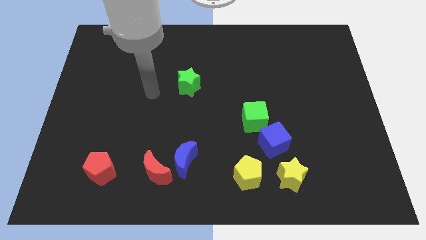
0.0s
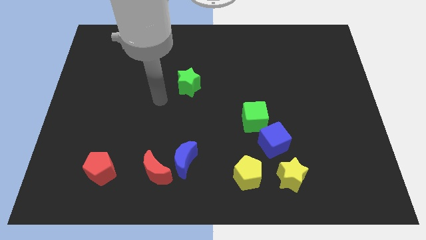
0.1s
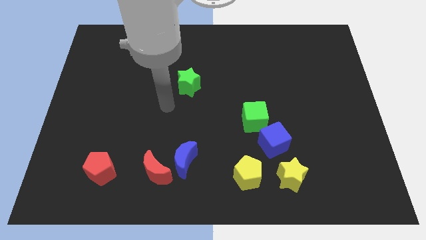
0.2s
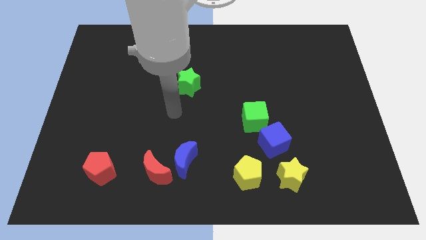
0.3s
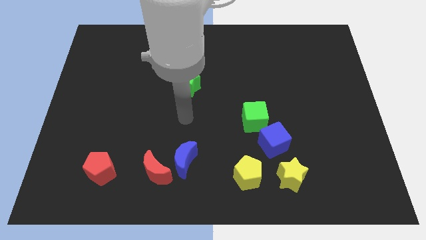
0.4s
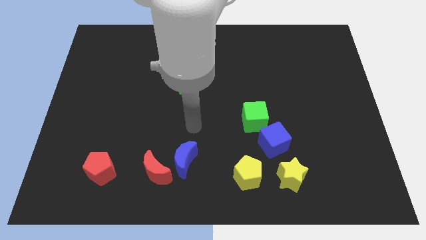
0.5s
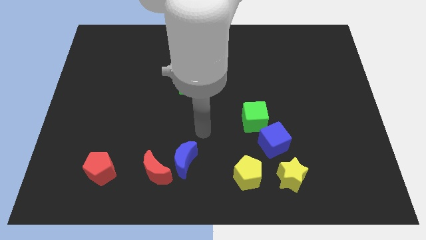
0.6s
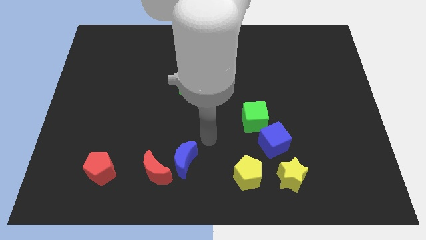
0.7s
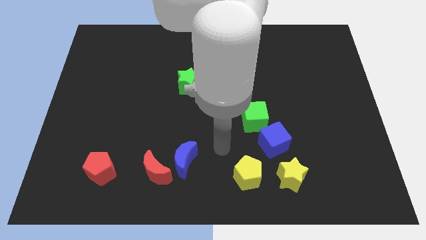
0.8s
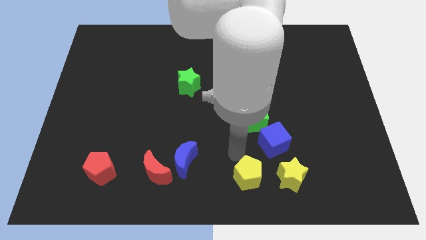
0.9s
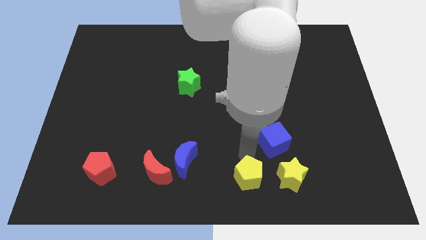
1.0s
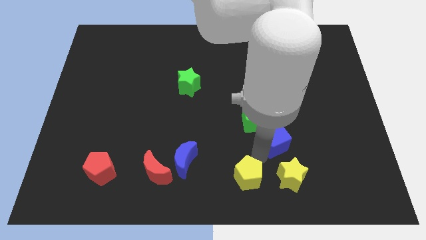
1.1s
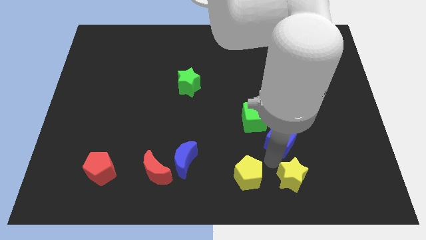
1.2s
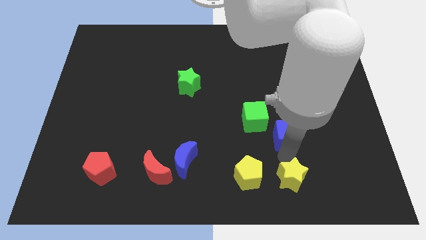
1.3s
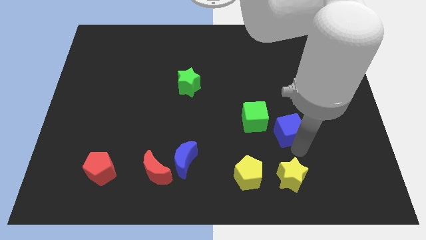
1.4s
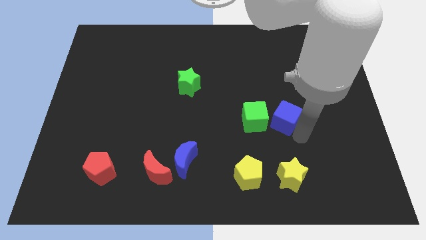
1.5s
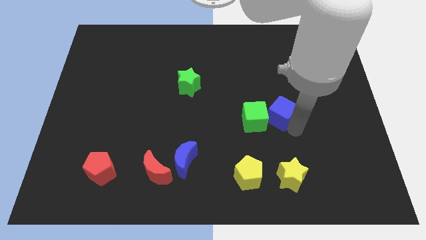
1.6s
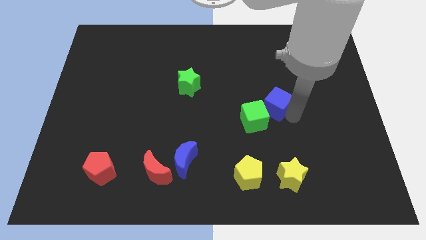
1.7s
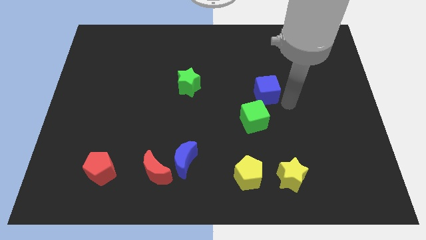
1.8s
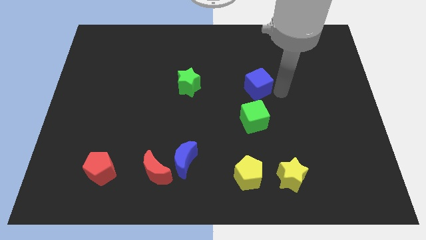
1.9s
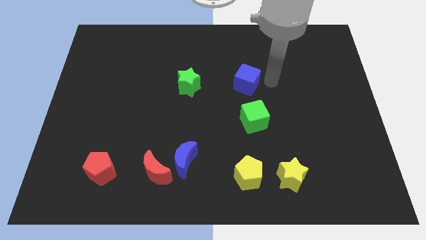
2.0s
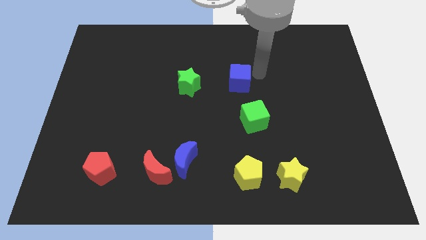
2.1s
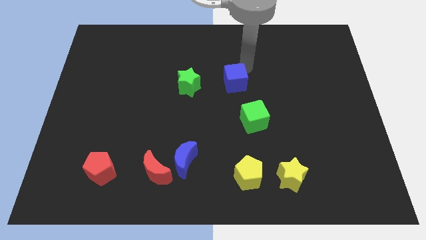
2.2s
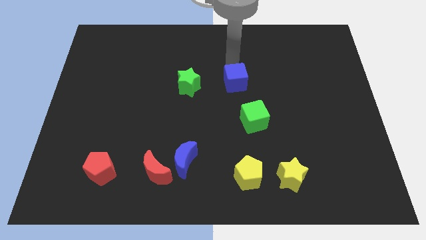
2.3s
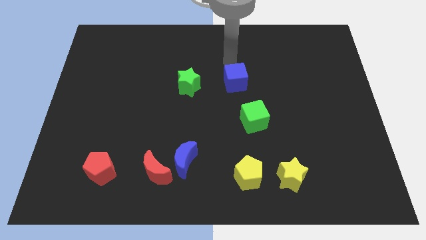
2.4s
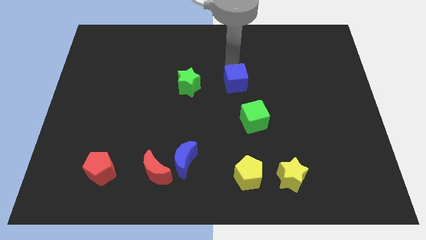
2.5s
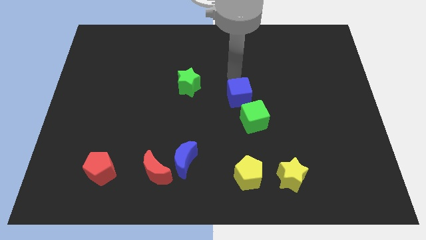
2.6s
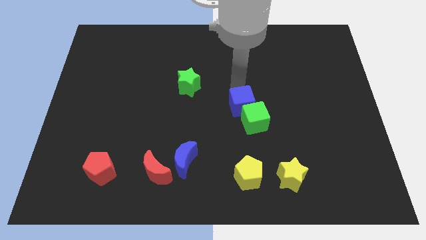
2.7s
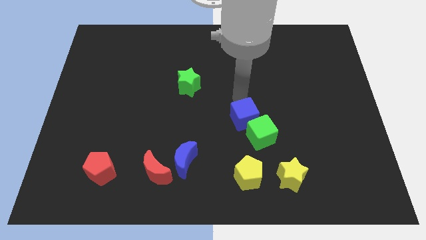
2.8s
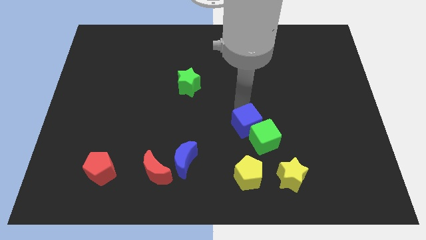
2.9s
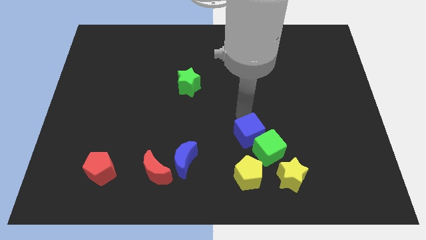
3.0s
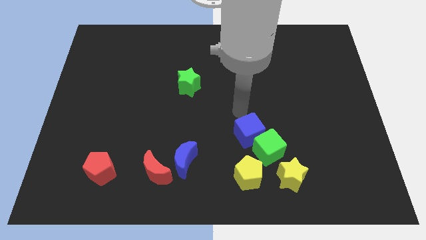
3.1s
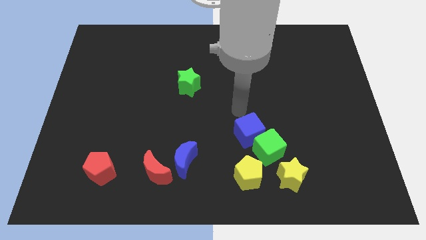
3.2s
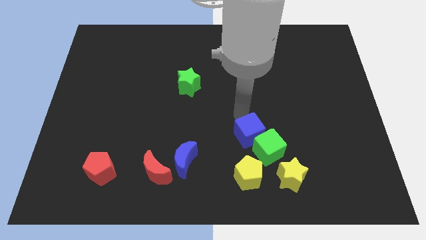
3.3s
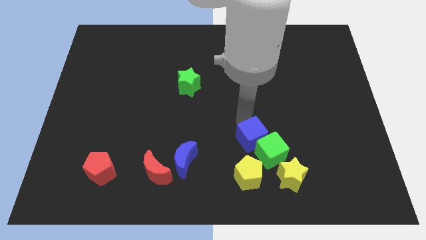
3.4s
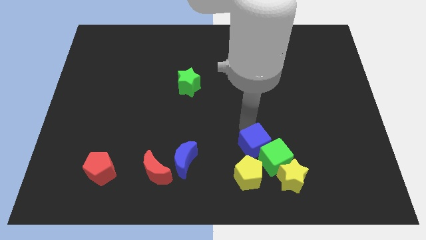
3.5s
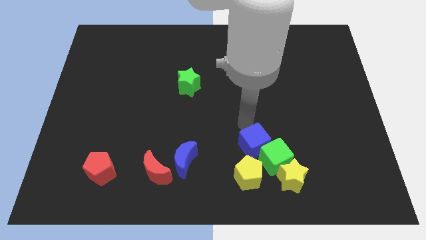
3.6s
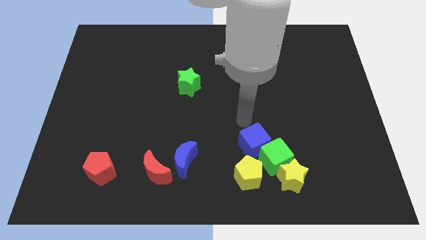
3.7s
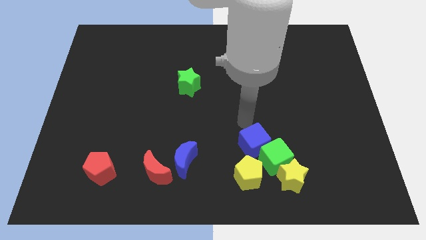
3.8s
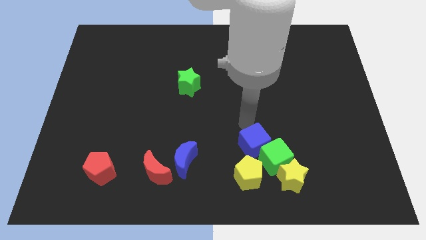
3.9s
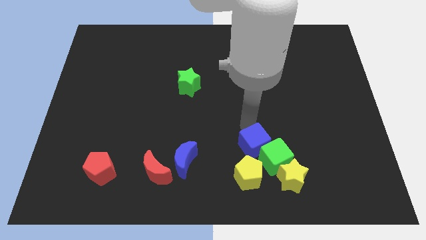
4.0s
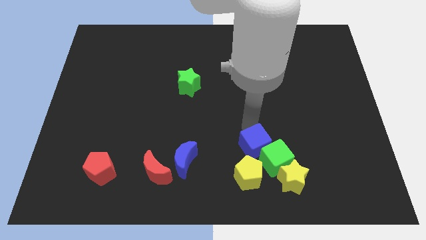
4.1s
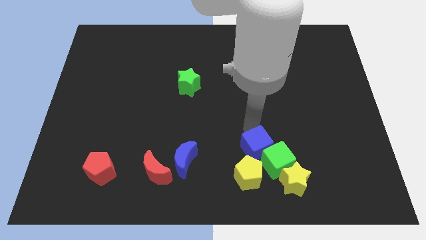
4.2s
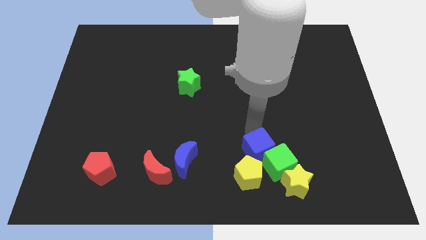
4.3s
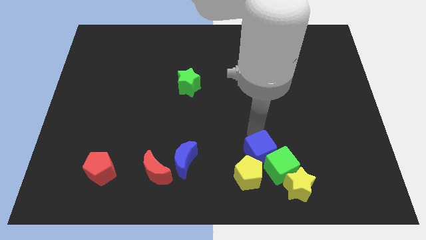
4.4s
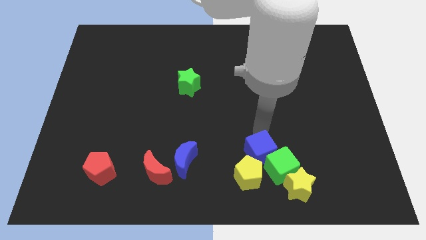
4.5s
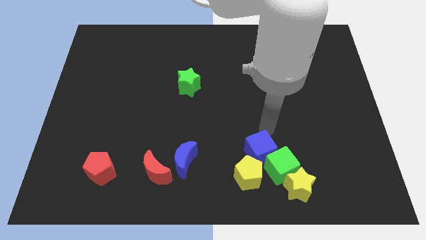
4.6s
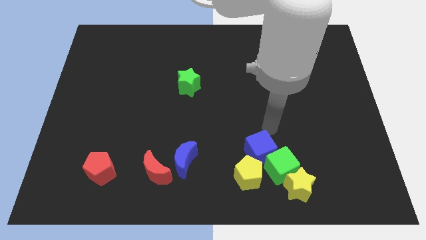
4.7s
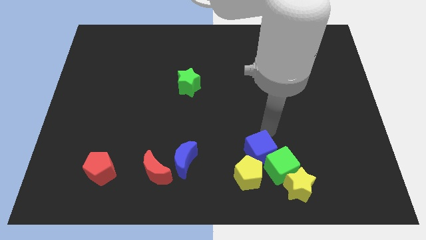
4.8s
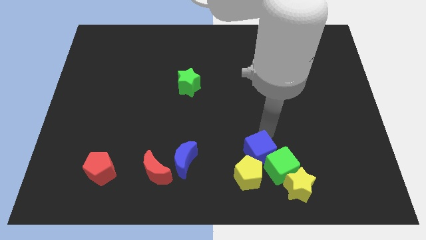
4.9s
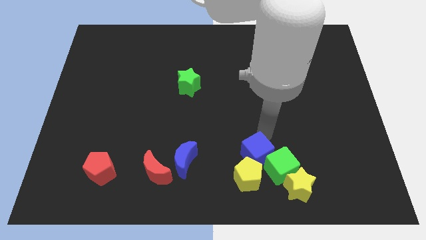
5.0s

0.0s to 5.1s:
move the blue cube to the yellow pentagon

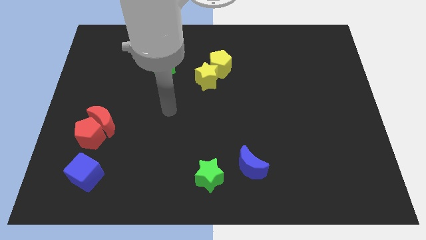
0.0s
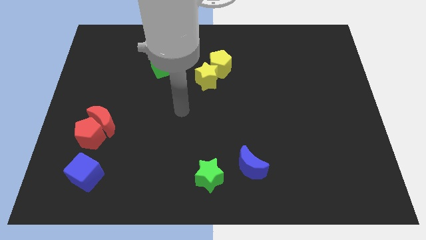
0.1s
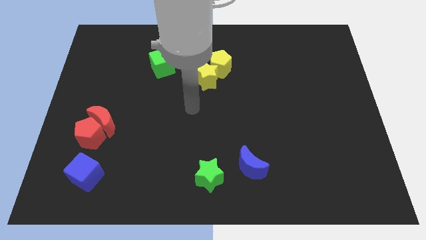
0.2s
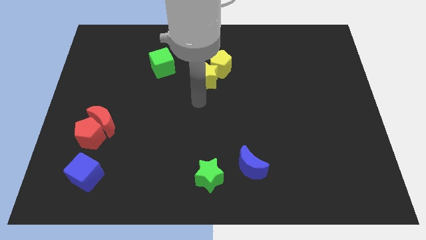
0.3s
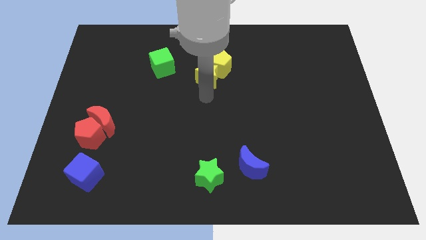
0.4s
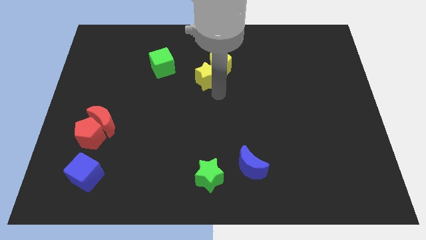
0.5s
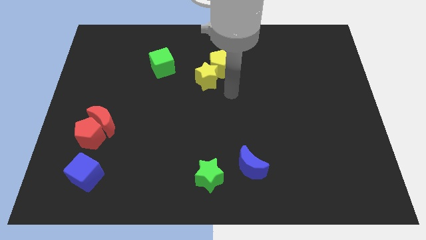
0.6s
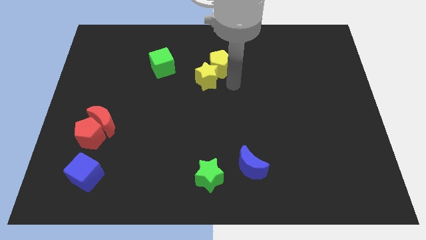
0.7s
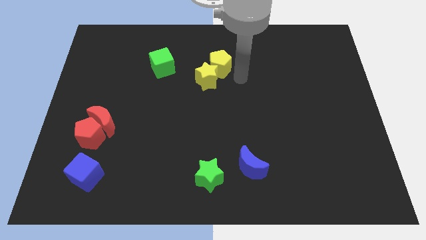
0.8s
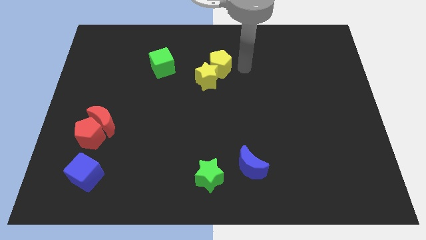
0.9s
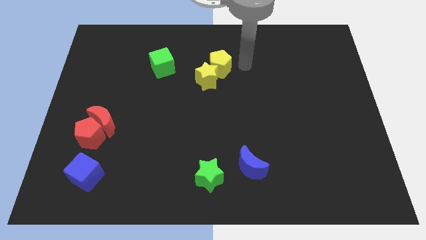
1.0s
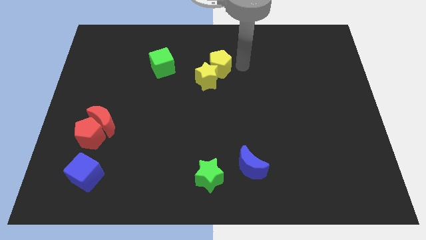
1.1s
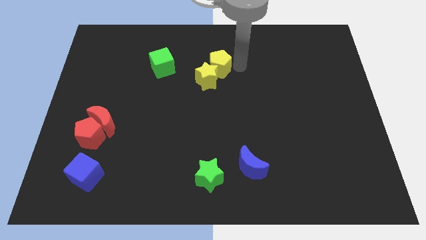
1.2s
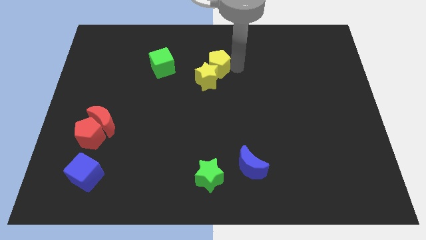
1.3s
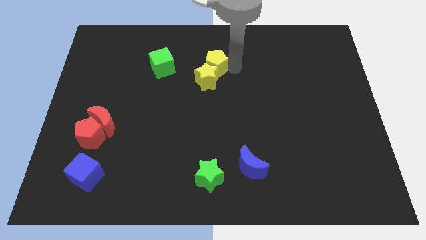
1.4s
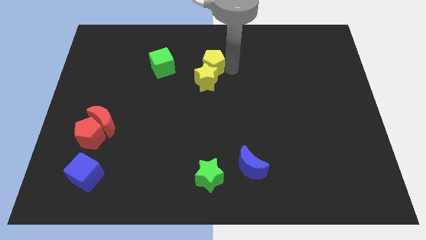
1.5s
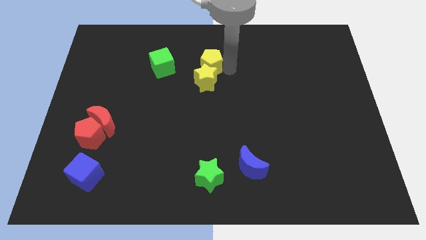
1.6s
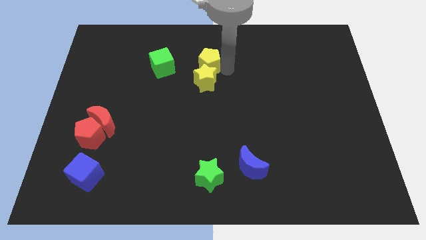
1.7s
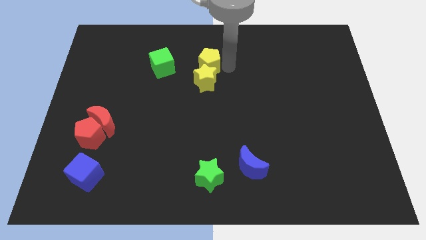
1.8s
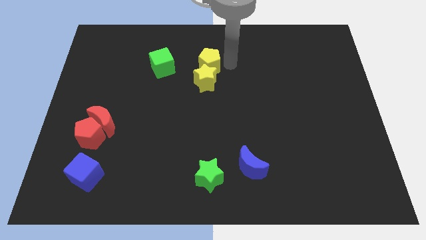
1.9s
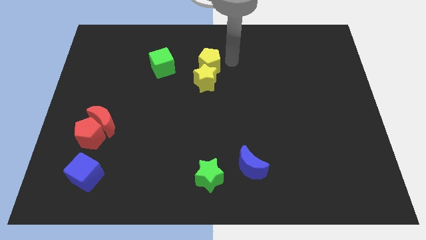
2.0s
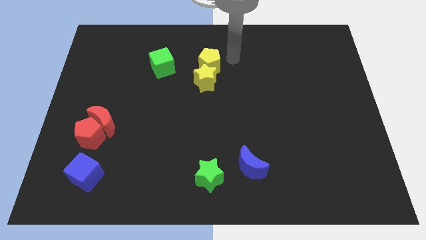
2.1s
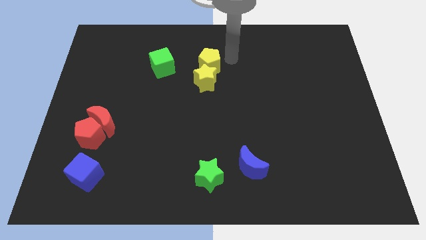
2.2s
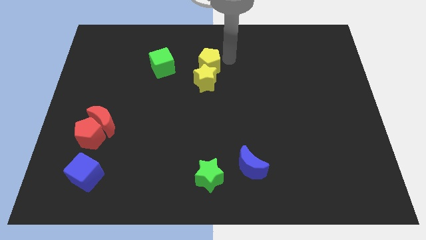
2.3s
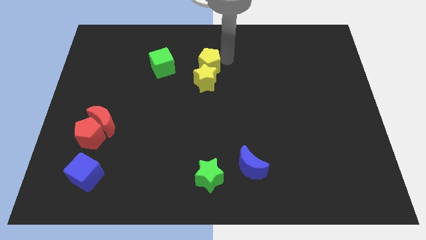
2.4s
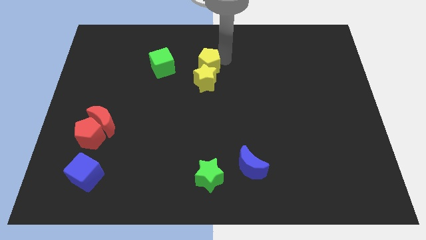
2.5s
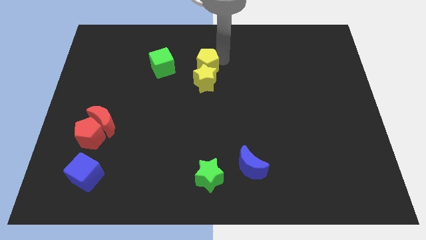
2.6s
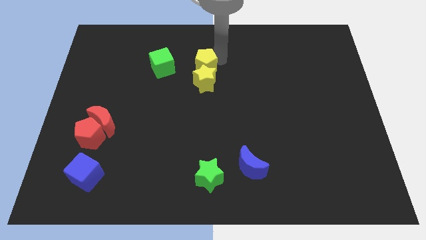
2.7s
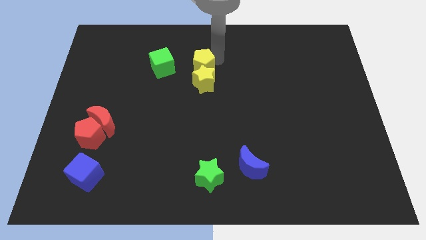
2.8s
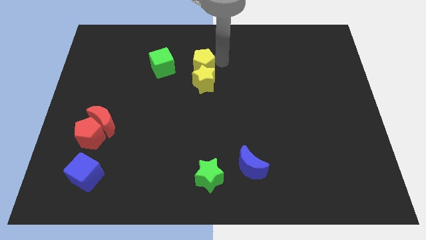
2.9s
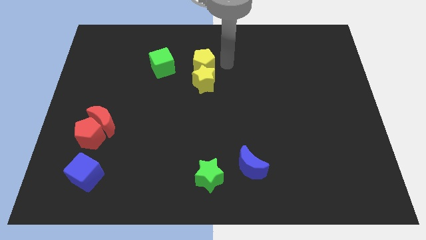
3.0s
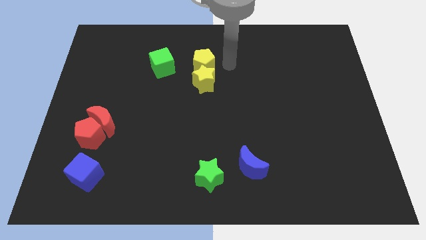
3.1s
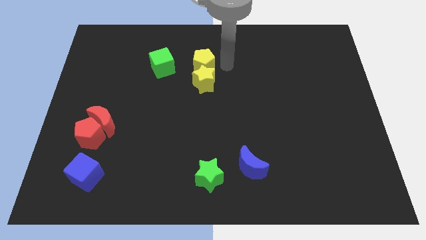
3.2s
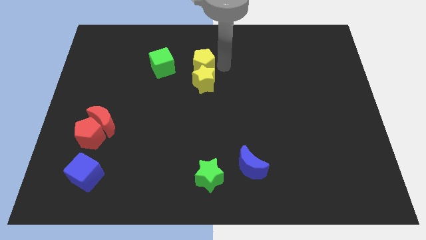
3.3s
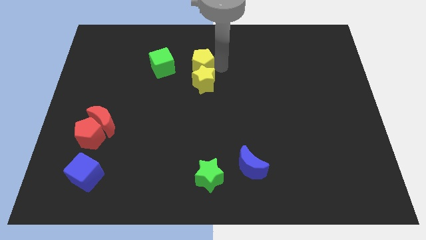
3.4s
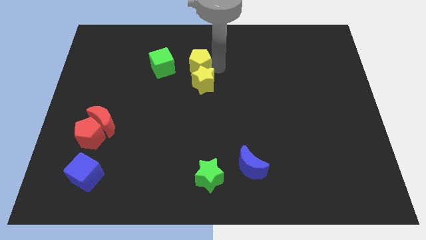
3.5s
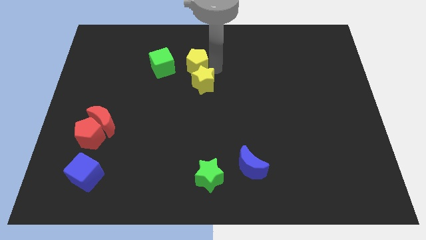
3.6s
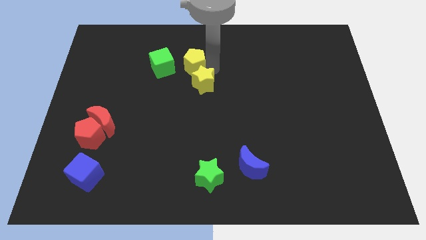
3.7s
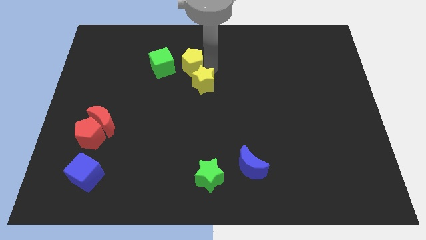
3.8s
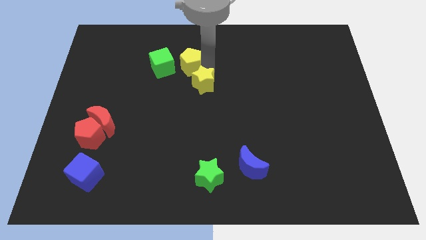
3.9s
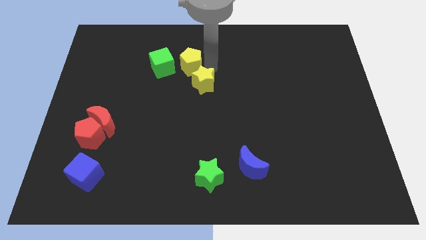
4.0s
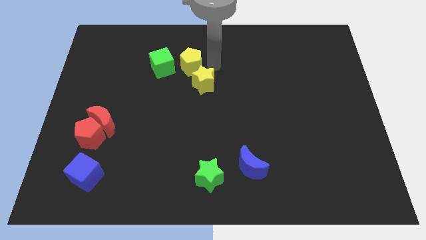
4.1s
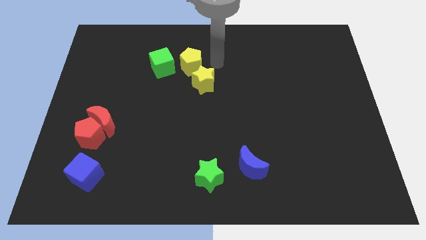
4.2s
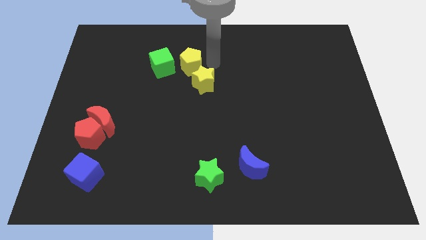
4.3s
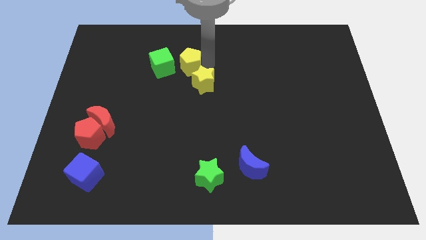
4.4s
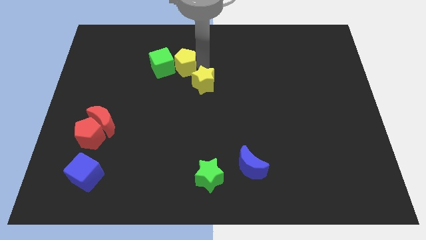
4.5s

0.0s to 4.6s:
slide the yellow pentagon next to the green cube
